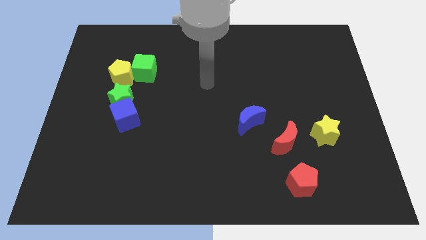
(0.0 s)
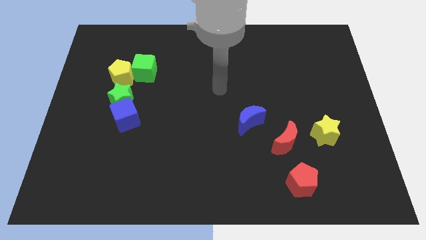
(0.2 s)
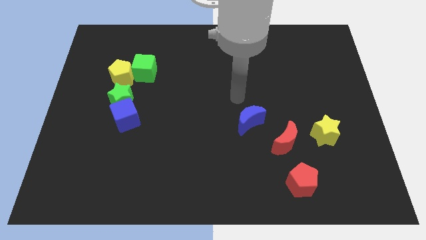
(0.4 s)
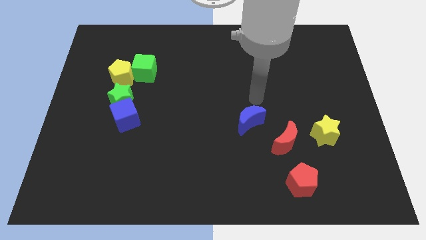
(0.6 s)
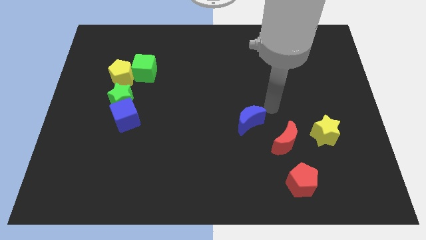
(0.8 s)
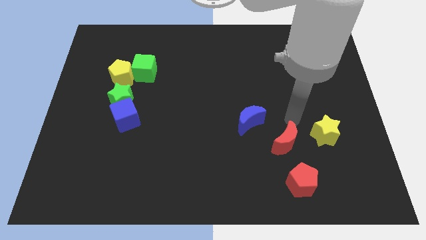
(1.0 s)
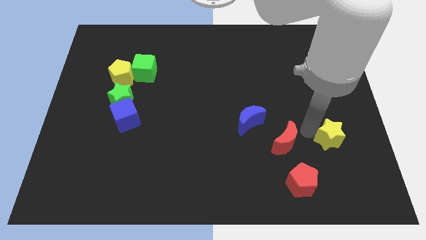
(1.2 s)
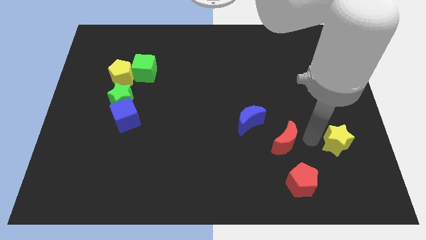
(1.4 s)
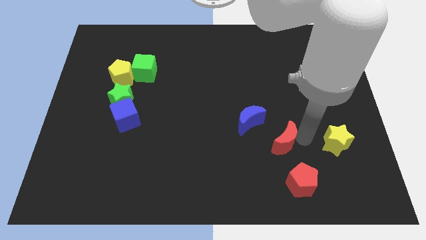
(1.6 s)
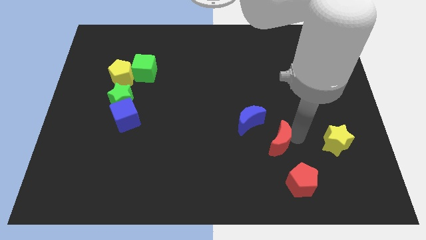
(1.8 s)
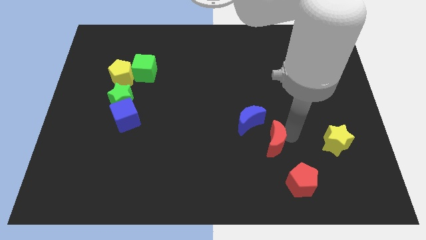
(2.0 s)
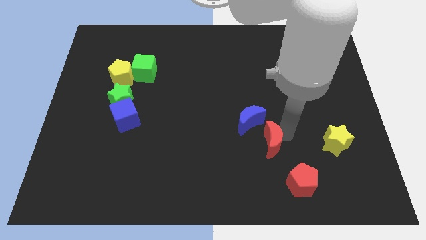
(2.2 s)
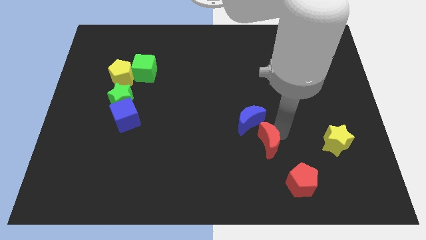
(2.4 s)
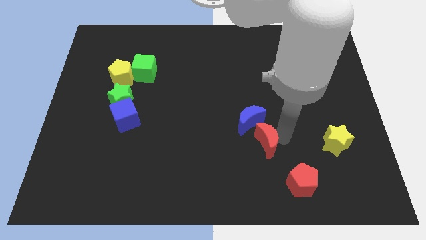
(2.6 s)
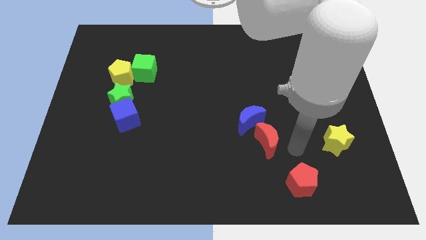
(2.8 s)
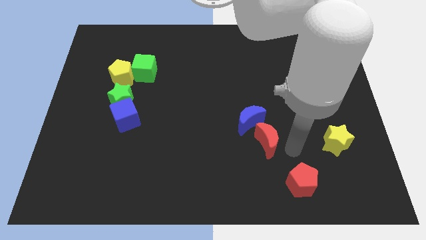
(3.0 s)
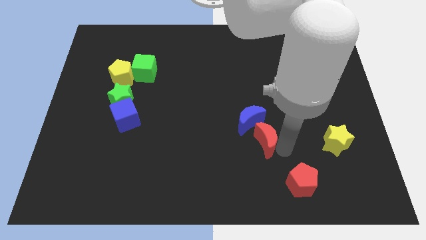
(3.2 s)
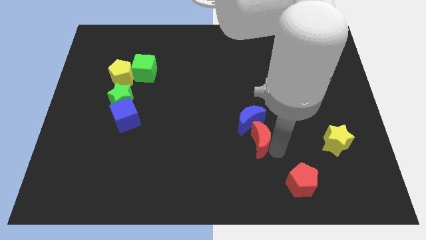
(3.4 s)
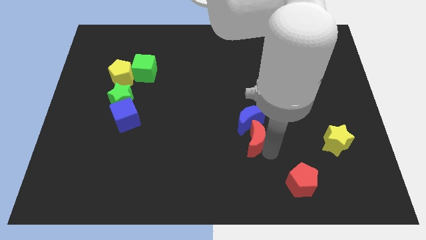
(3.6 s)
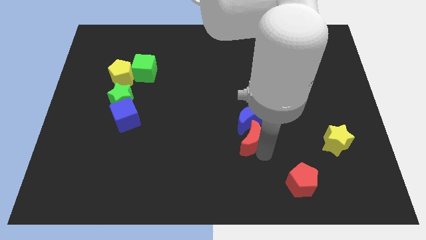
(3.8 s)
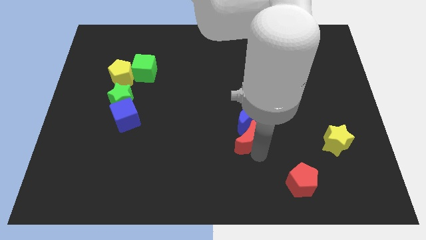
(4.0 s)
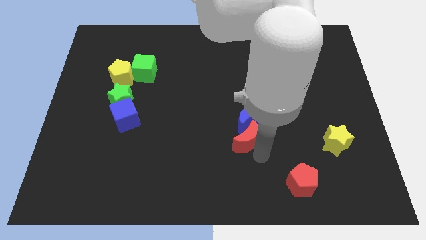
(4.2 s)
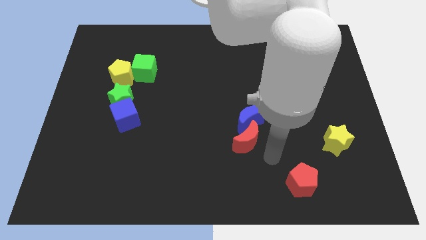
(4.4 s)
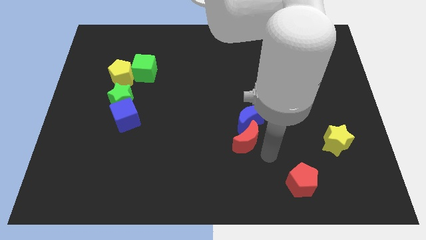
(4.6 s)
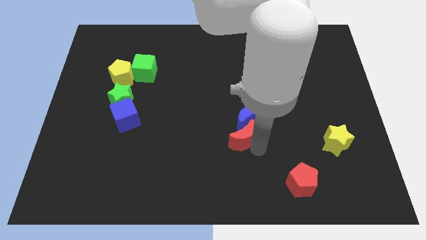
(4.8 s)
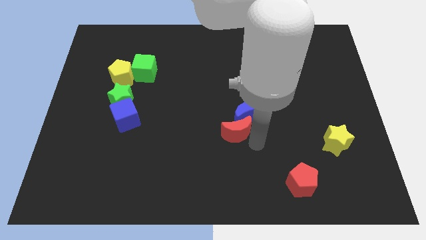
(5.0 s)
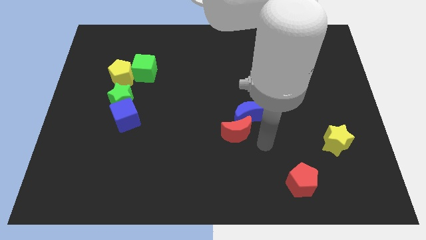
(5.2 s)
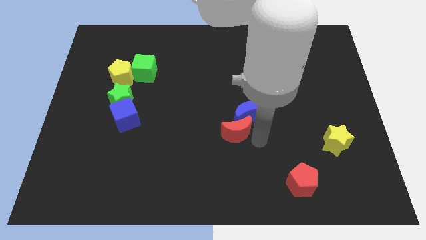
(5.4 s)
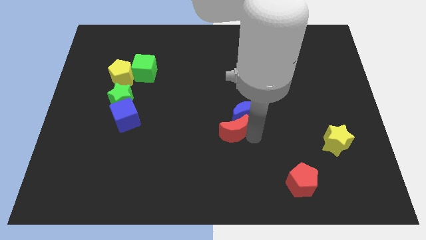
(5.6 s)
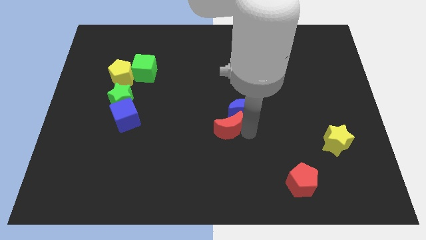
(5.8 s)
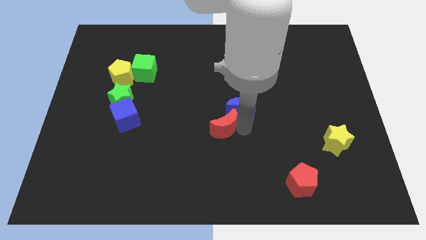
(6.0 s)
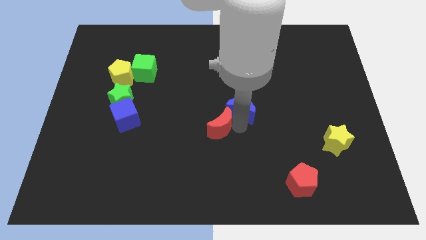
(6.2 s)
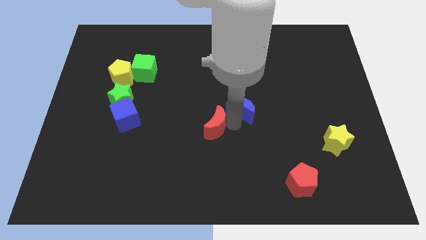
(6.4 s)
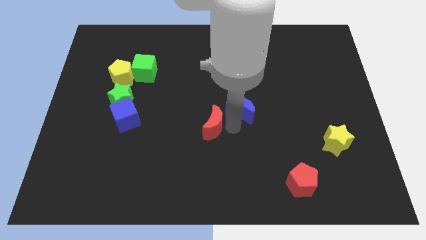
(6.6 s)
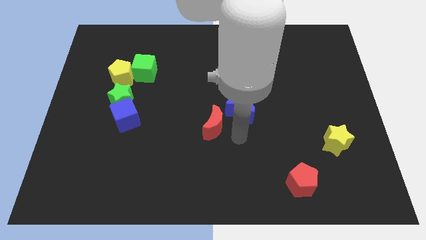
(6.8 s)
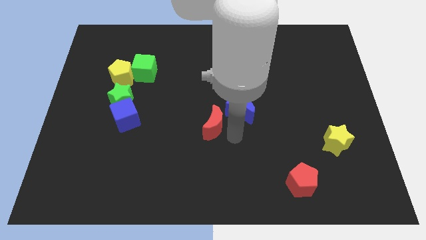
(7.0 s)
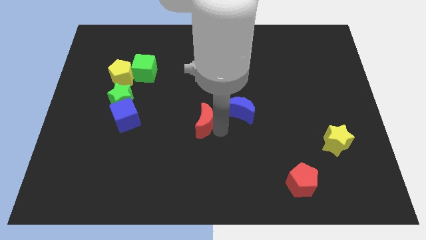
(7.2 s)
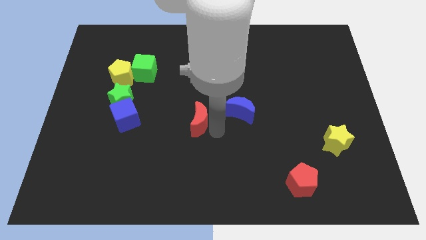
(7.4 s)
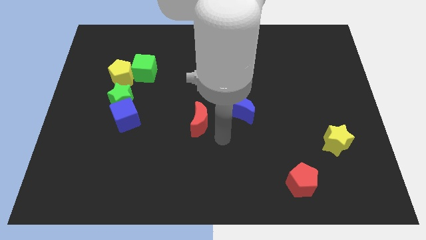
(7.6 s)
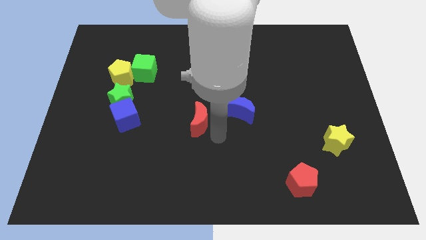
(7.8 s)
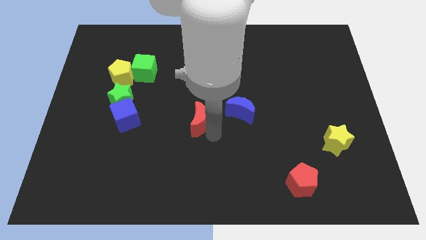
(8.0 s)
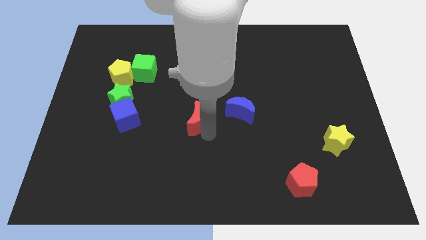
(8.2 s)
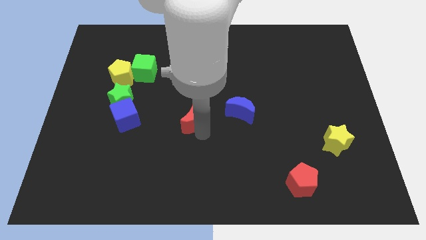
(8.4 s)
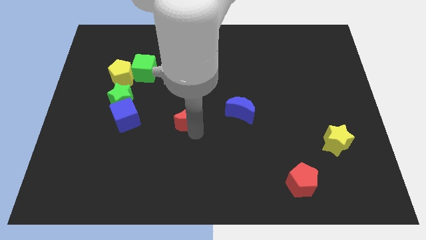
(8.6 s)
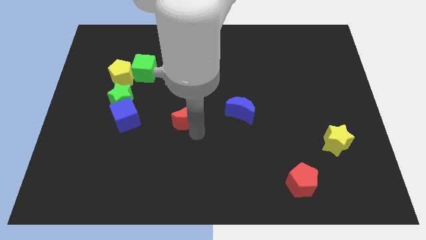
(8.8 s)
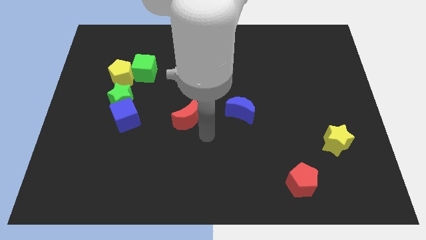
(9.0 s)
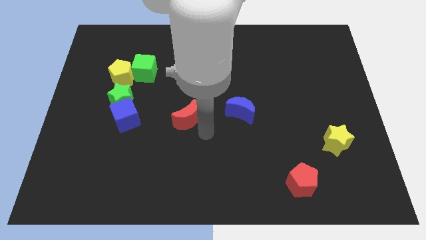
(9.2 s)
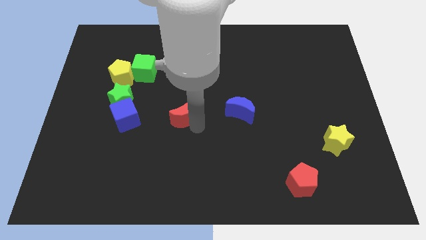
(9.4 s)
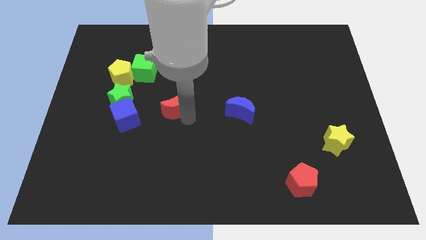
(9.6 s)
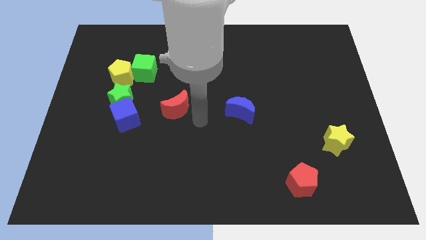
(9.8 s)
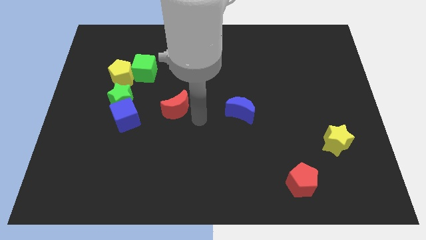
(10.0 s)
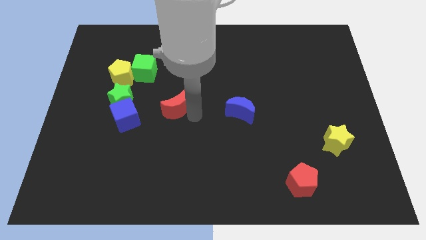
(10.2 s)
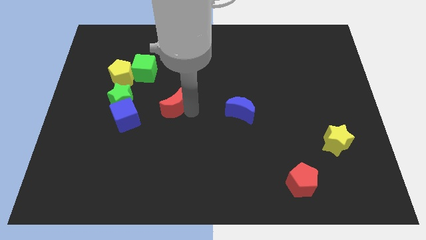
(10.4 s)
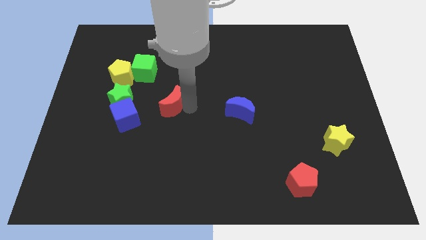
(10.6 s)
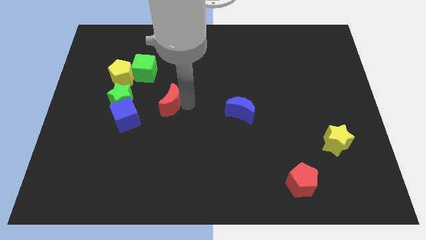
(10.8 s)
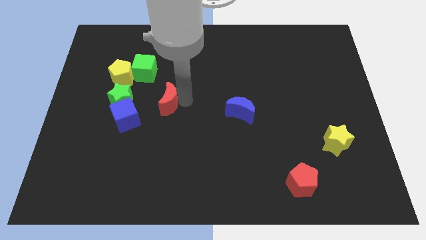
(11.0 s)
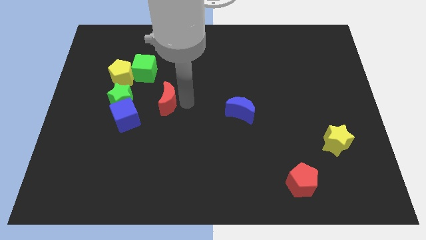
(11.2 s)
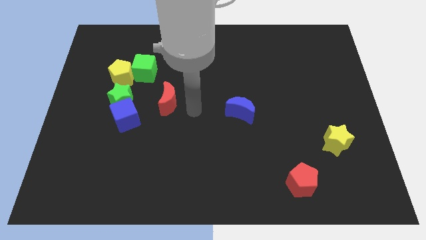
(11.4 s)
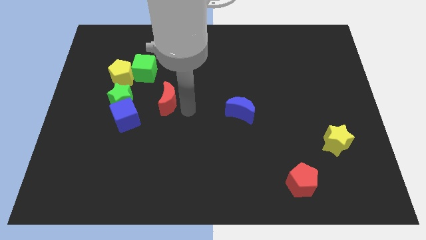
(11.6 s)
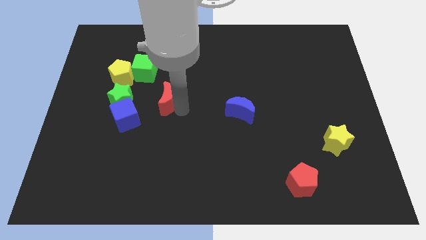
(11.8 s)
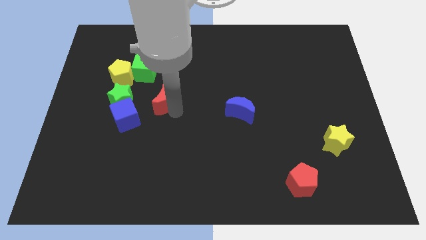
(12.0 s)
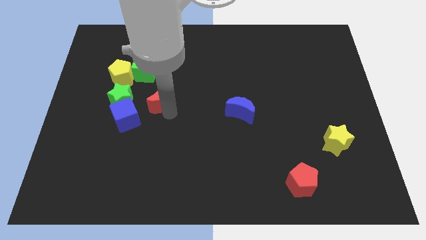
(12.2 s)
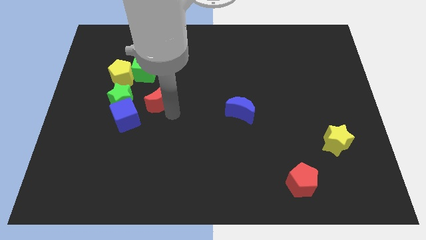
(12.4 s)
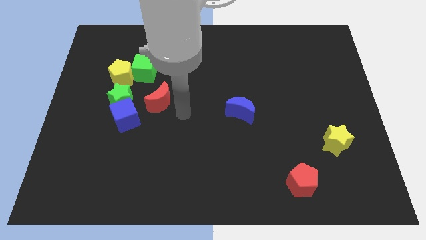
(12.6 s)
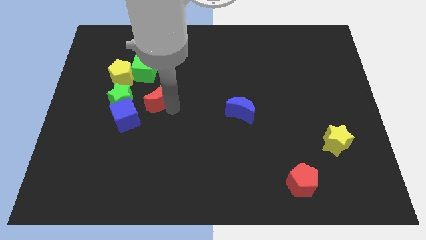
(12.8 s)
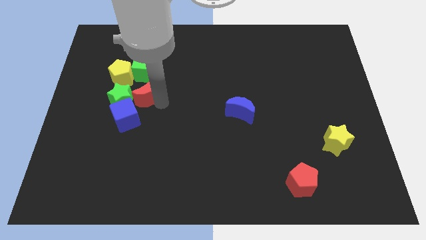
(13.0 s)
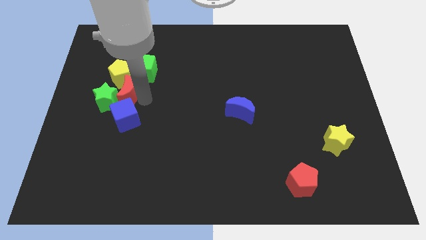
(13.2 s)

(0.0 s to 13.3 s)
push the red moon next to the yellow pentagon

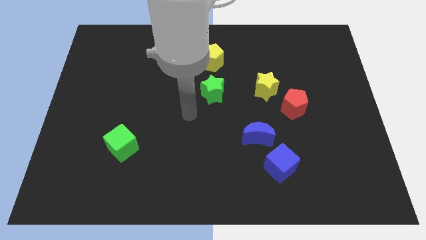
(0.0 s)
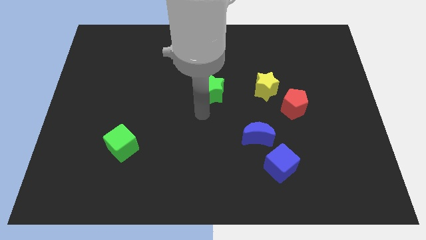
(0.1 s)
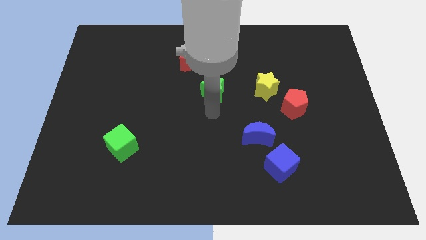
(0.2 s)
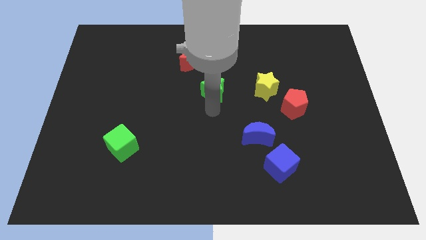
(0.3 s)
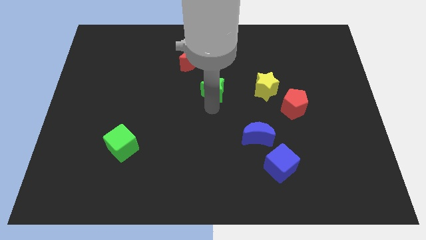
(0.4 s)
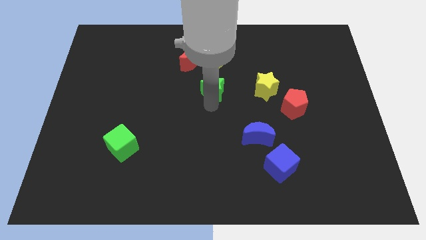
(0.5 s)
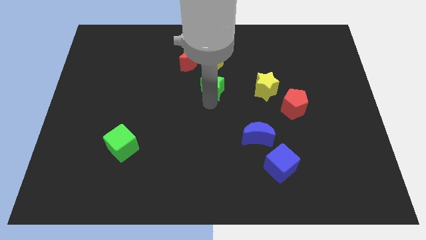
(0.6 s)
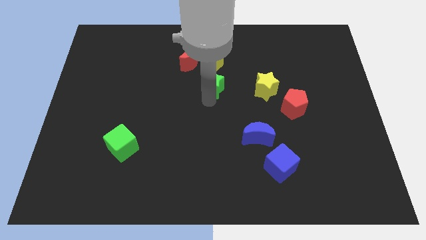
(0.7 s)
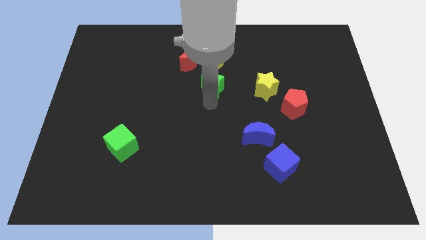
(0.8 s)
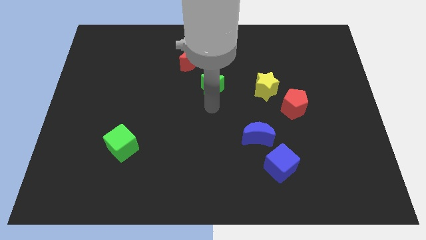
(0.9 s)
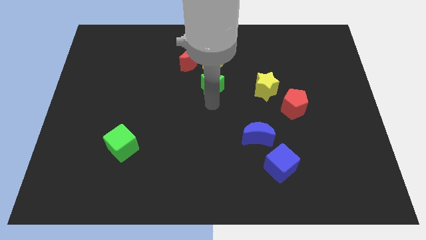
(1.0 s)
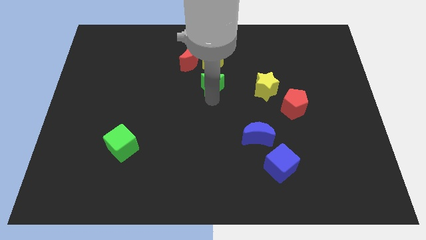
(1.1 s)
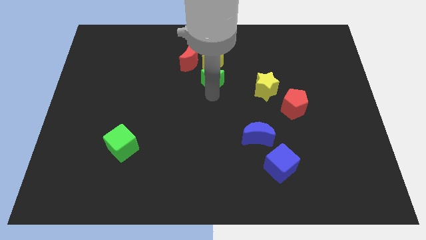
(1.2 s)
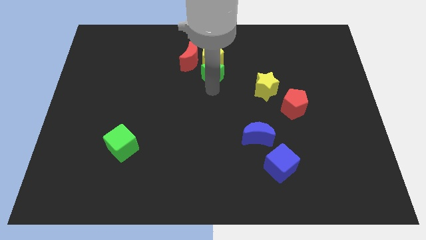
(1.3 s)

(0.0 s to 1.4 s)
put the green star to the yellow pentagon
